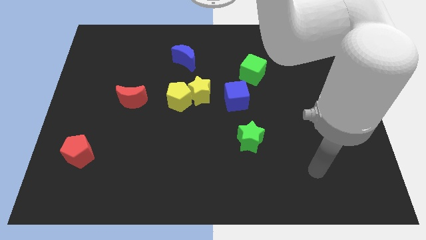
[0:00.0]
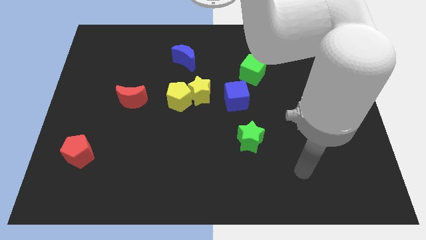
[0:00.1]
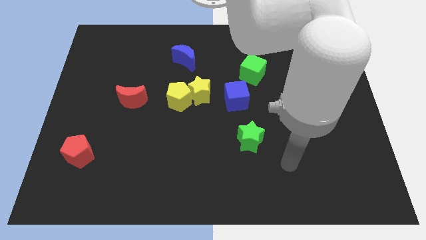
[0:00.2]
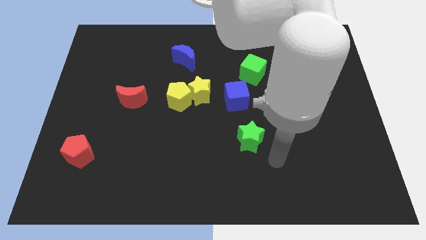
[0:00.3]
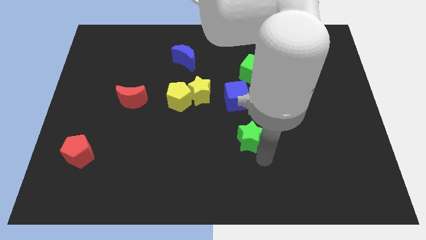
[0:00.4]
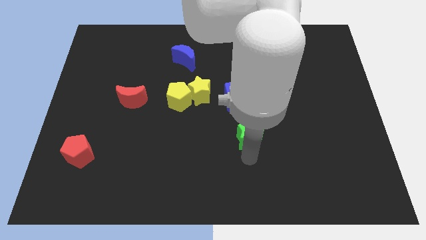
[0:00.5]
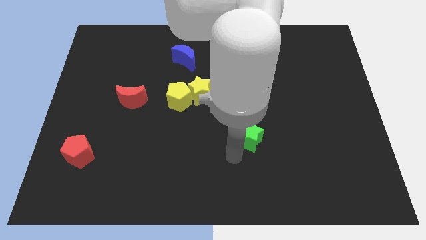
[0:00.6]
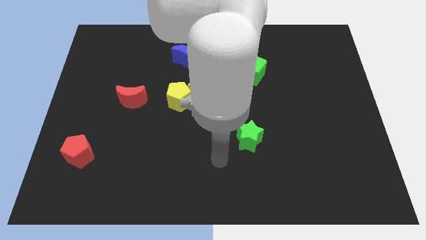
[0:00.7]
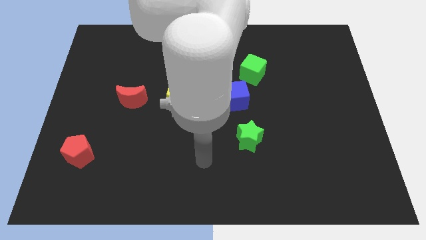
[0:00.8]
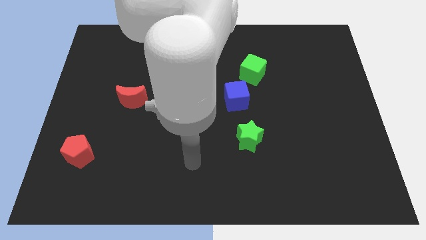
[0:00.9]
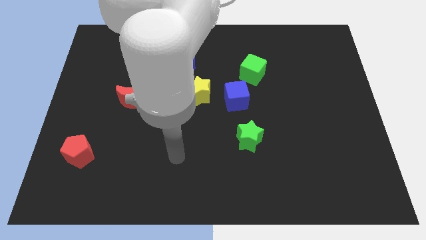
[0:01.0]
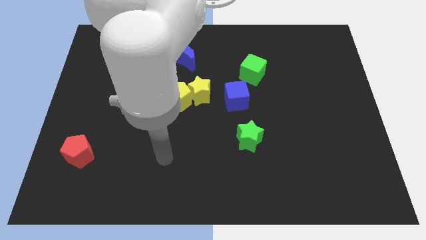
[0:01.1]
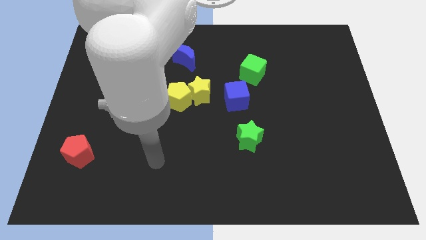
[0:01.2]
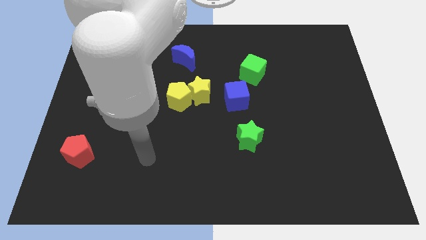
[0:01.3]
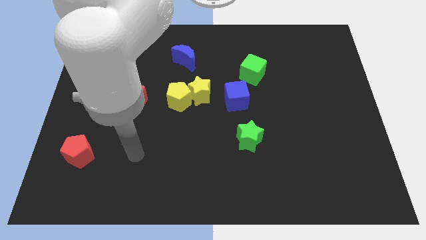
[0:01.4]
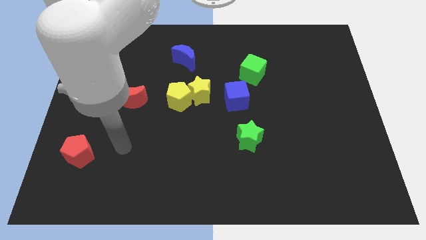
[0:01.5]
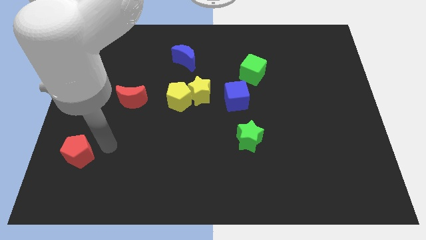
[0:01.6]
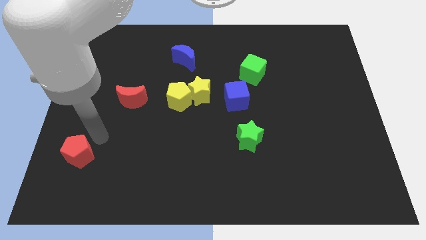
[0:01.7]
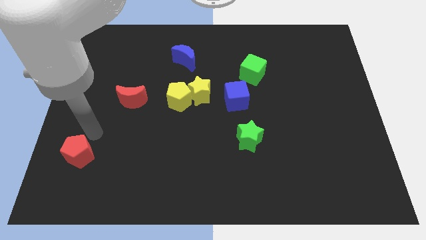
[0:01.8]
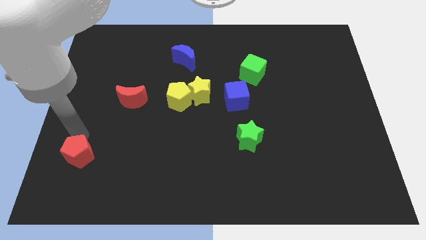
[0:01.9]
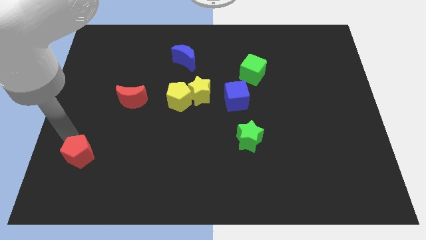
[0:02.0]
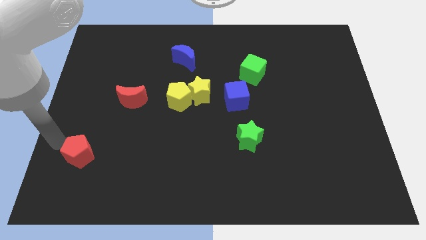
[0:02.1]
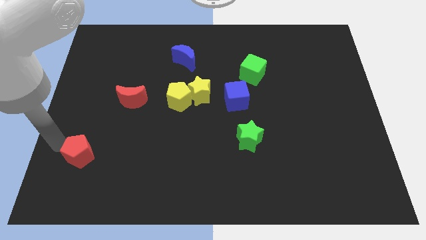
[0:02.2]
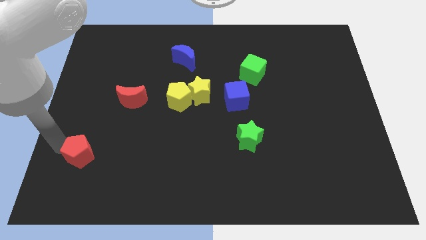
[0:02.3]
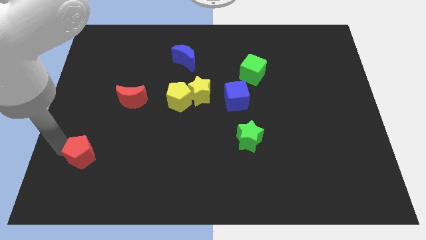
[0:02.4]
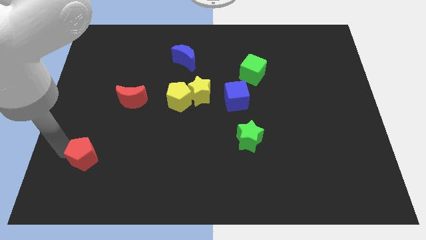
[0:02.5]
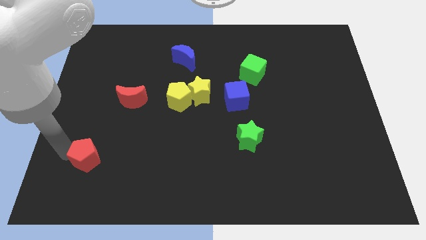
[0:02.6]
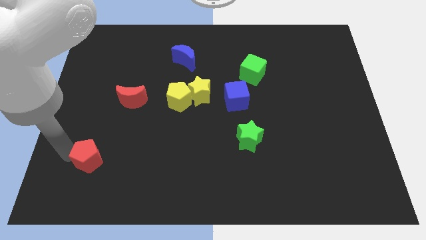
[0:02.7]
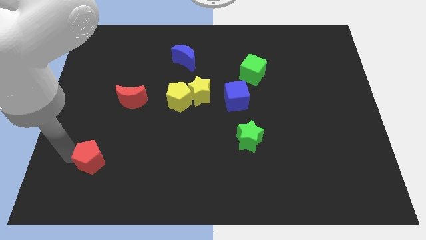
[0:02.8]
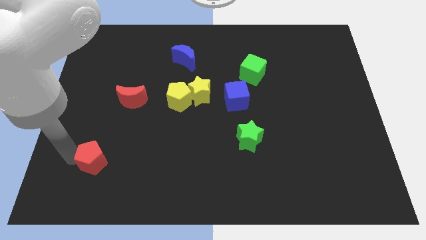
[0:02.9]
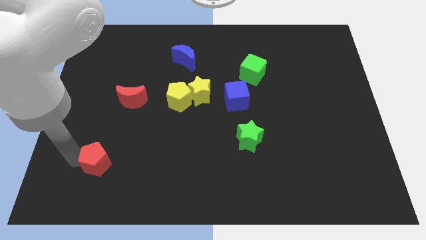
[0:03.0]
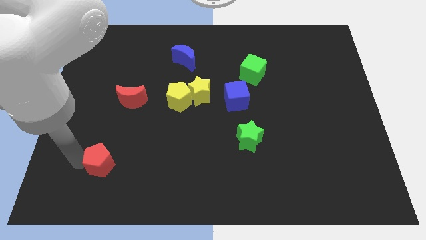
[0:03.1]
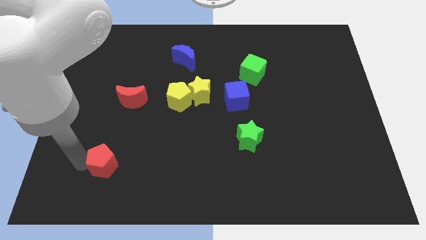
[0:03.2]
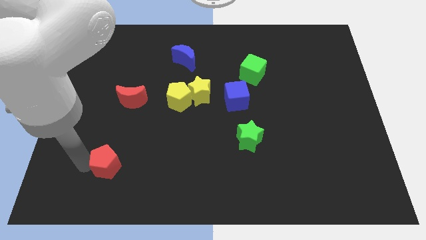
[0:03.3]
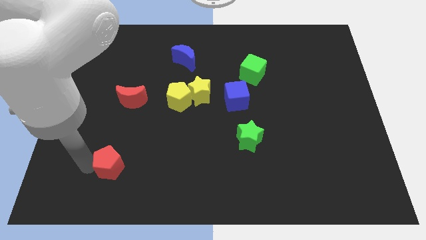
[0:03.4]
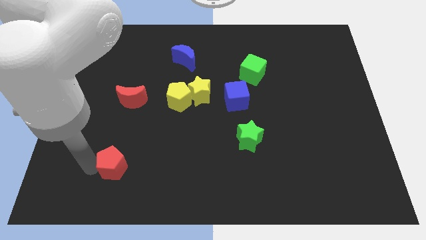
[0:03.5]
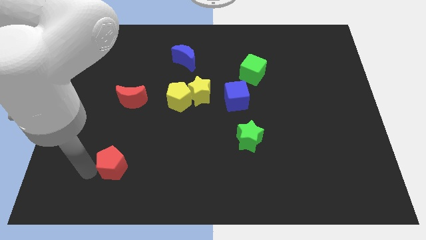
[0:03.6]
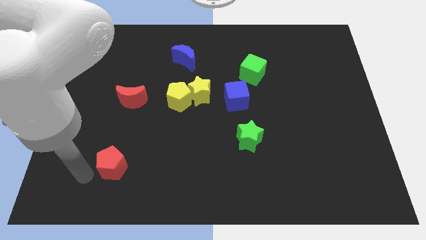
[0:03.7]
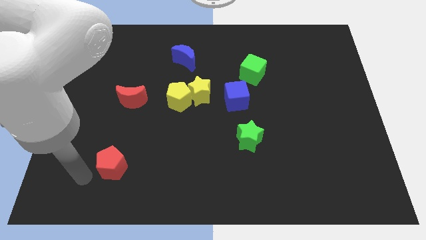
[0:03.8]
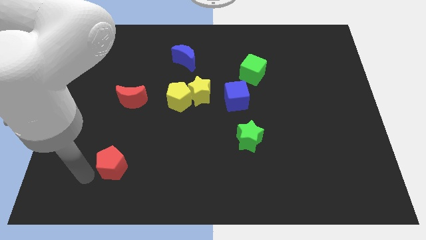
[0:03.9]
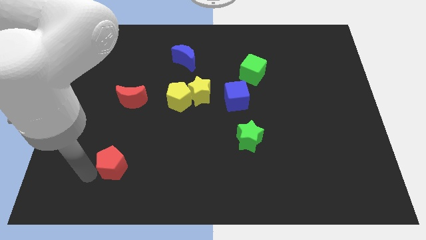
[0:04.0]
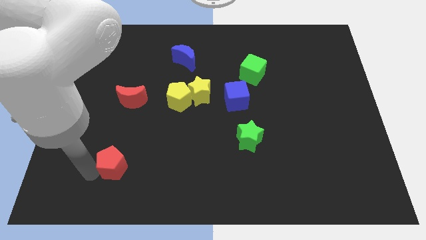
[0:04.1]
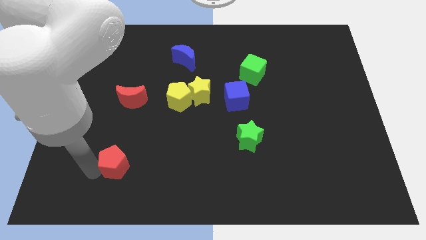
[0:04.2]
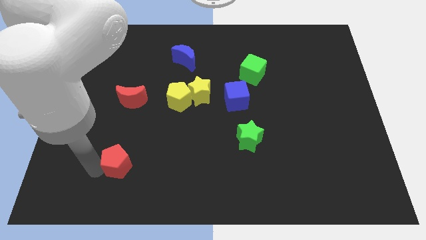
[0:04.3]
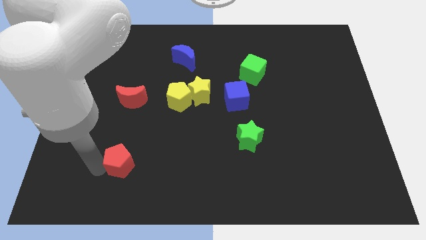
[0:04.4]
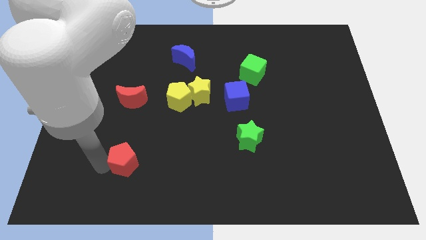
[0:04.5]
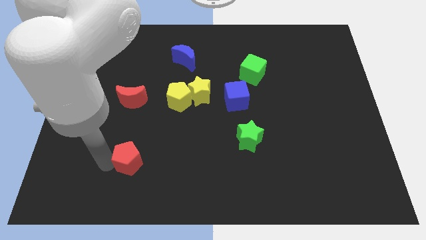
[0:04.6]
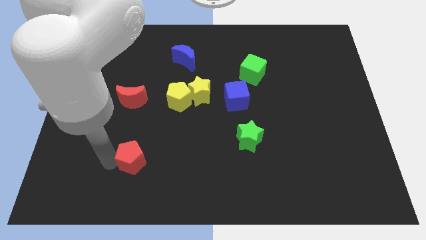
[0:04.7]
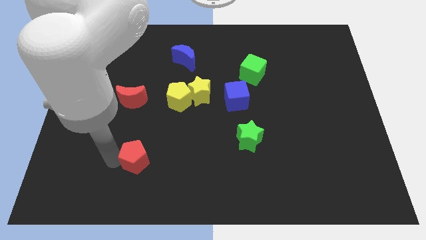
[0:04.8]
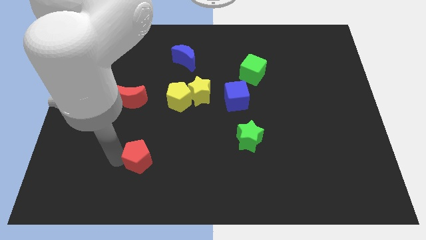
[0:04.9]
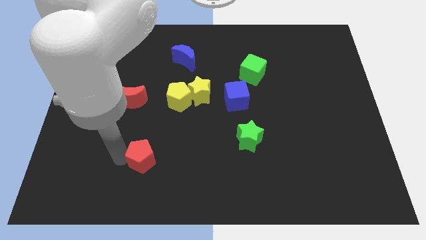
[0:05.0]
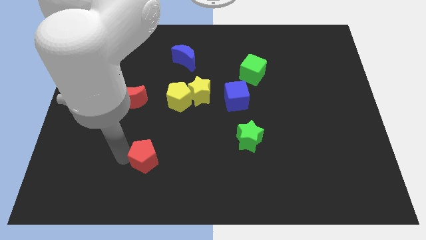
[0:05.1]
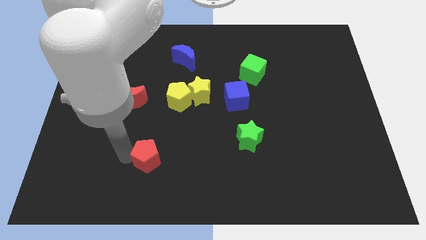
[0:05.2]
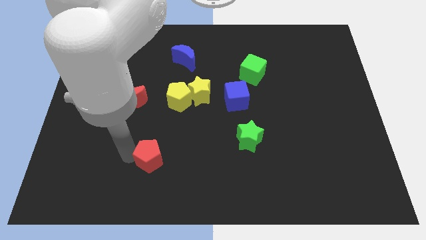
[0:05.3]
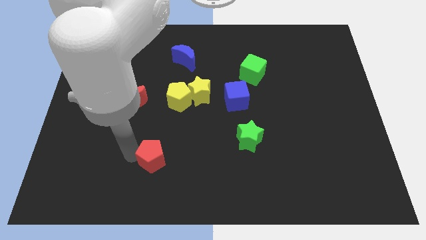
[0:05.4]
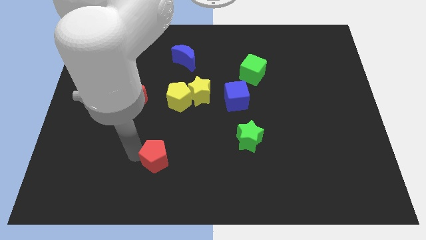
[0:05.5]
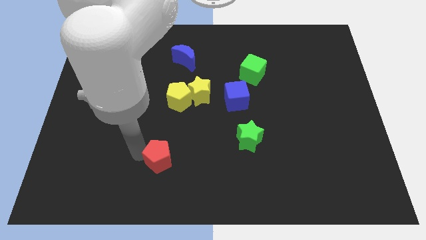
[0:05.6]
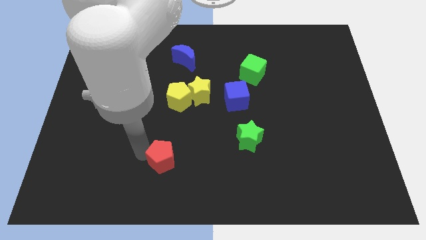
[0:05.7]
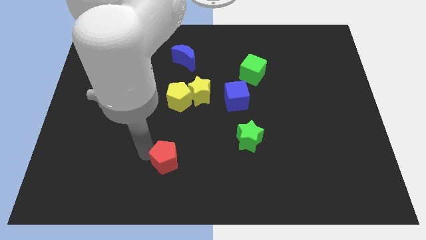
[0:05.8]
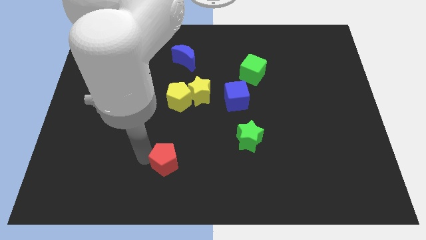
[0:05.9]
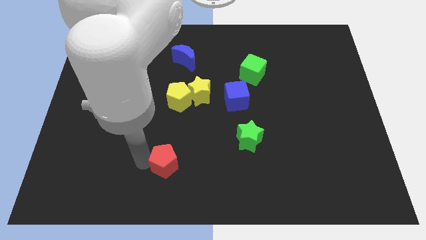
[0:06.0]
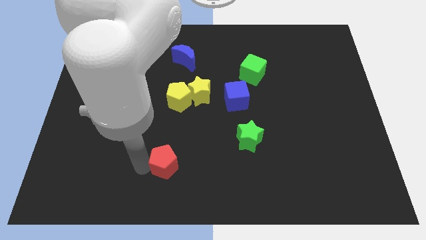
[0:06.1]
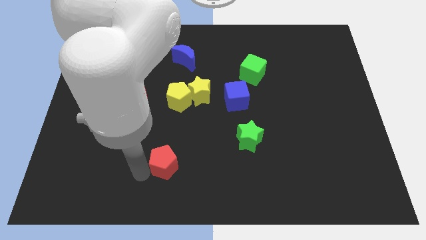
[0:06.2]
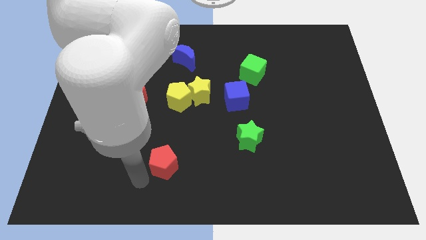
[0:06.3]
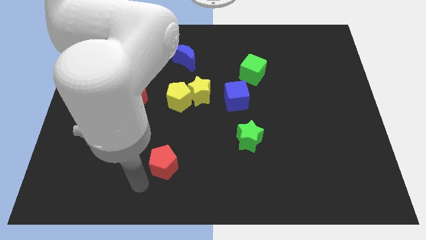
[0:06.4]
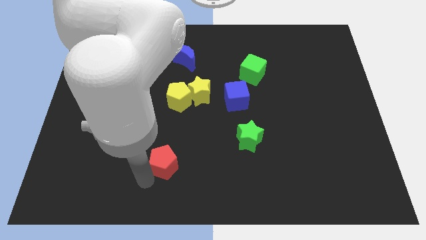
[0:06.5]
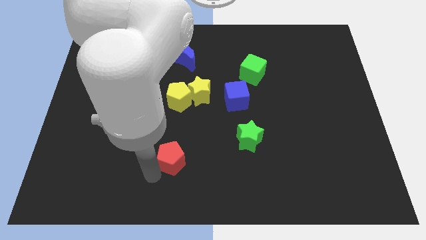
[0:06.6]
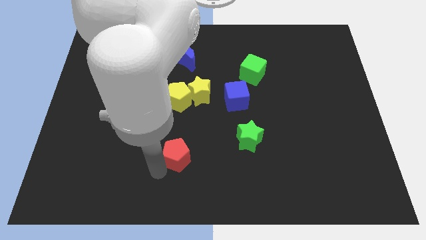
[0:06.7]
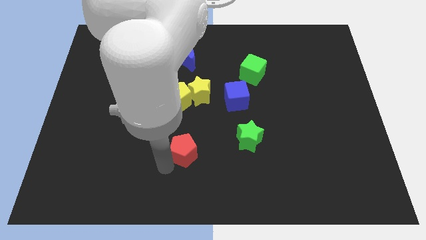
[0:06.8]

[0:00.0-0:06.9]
push the red pentagon just left of the green star

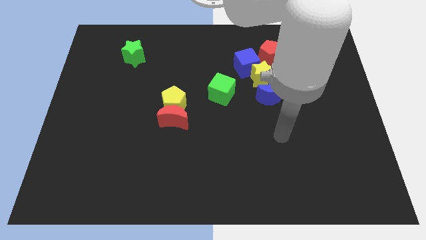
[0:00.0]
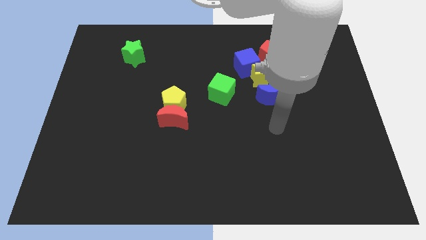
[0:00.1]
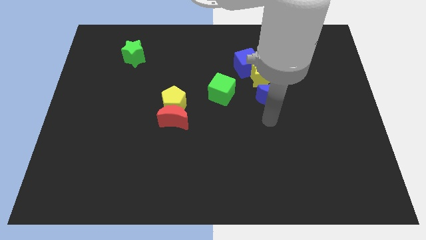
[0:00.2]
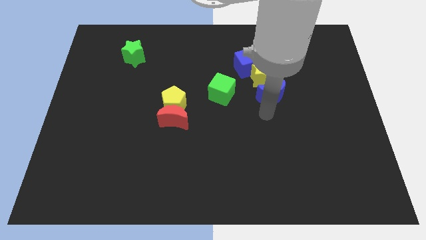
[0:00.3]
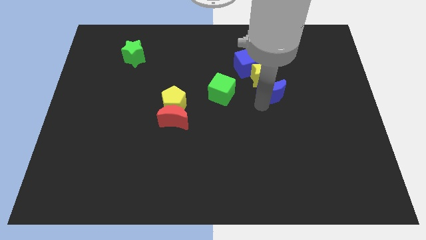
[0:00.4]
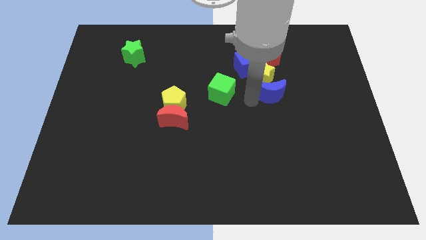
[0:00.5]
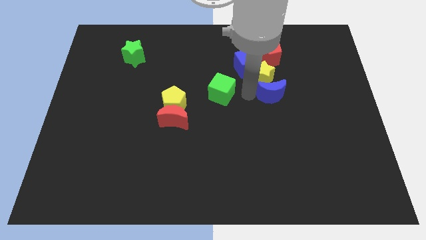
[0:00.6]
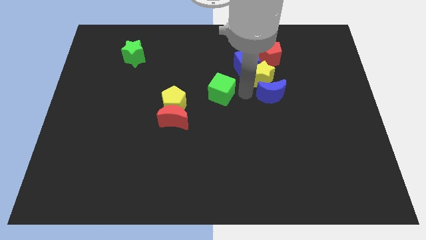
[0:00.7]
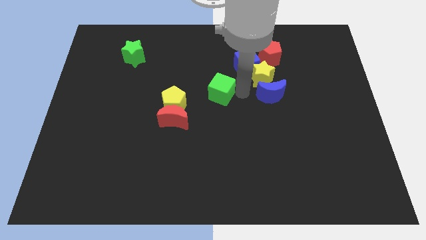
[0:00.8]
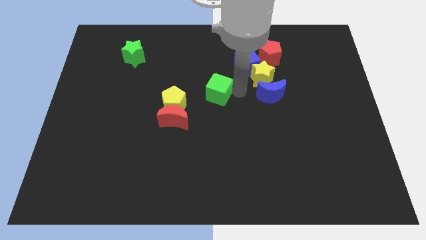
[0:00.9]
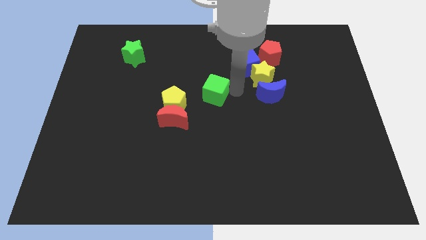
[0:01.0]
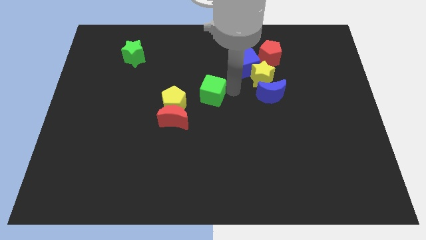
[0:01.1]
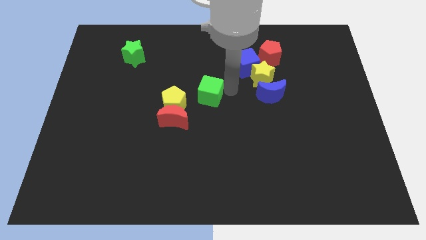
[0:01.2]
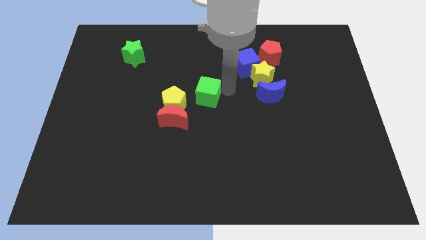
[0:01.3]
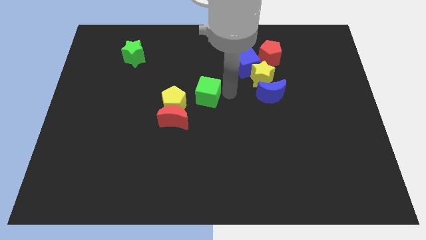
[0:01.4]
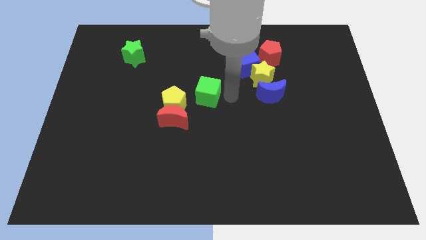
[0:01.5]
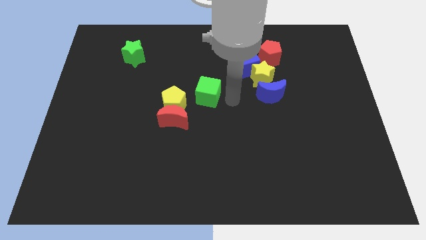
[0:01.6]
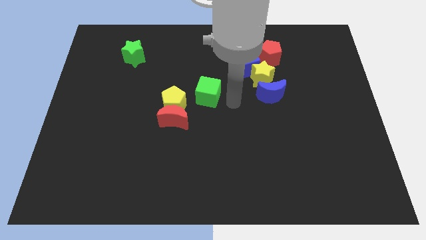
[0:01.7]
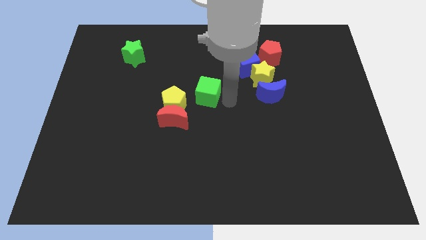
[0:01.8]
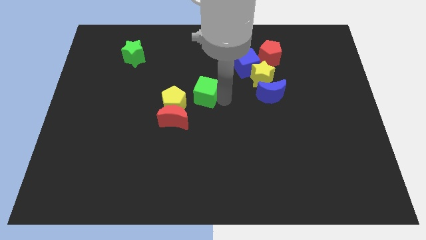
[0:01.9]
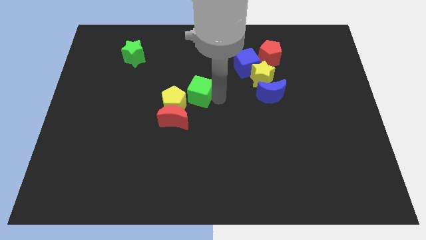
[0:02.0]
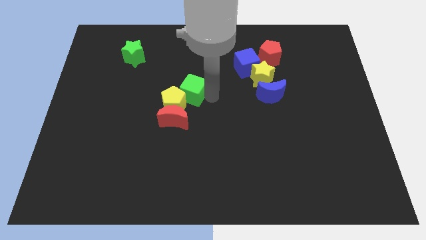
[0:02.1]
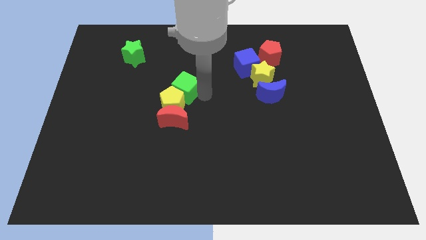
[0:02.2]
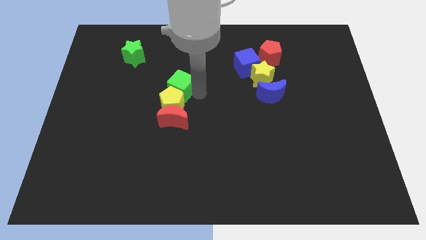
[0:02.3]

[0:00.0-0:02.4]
move the green cube to the top left side of the yellow pentagon
